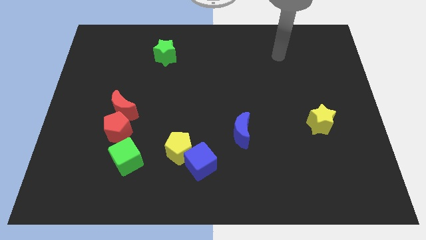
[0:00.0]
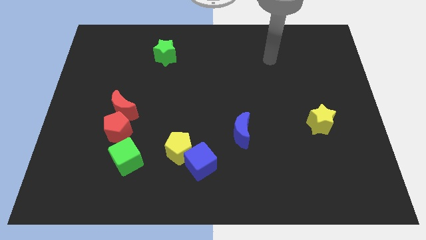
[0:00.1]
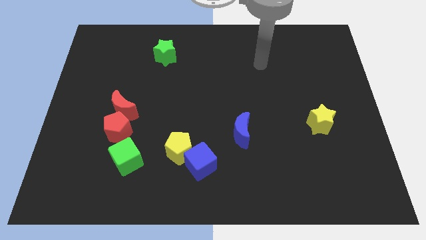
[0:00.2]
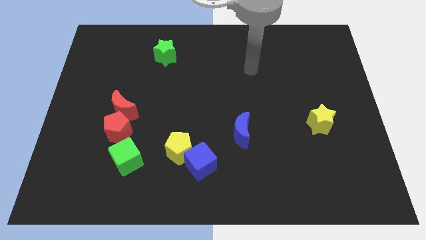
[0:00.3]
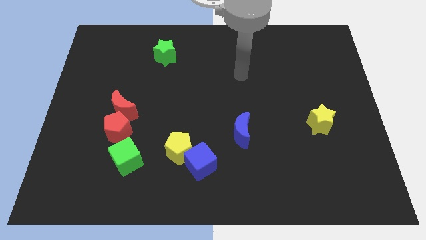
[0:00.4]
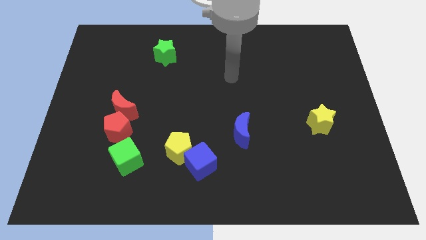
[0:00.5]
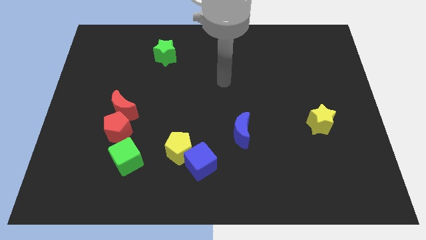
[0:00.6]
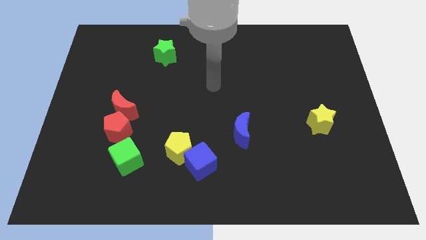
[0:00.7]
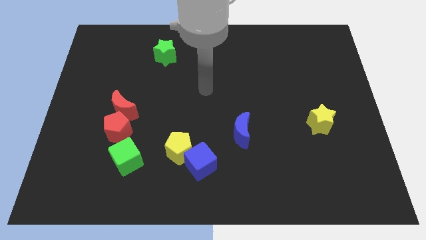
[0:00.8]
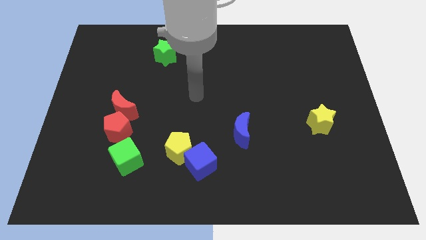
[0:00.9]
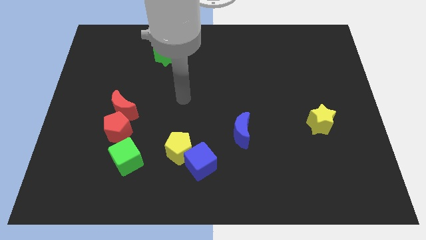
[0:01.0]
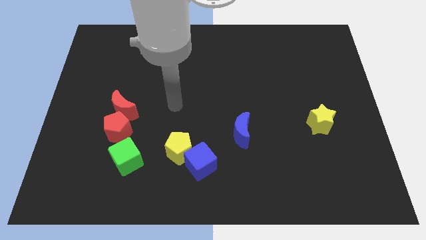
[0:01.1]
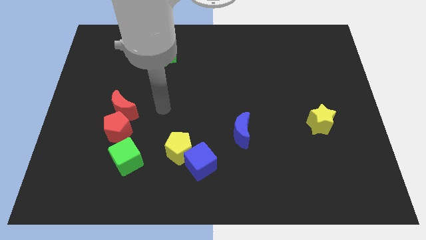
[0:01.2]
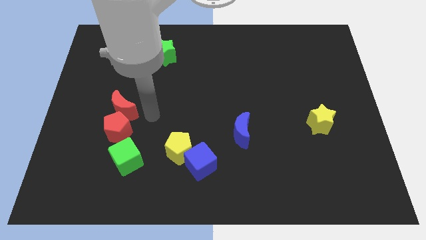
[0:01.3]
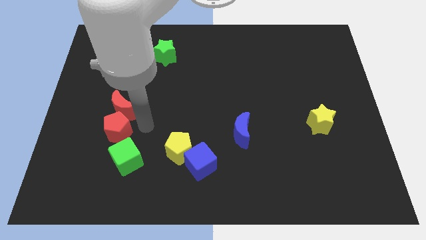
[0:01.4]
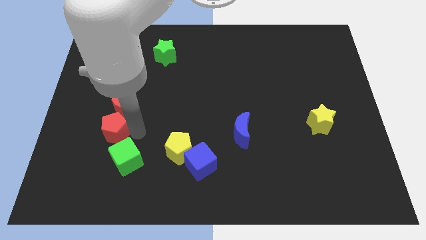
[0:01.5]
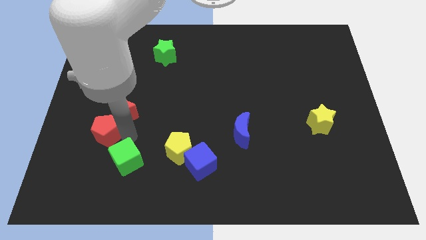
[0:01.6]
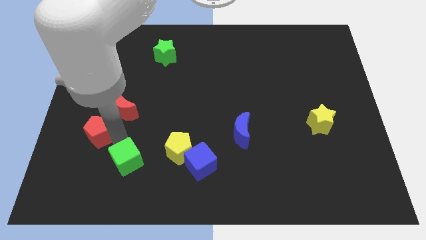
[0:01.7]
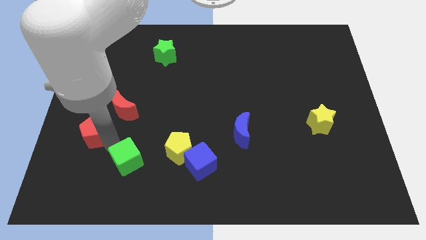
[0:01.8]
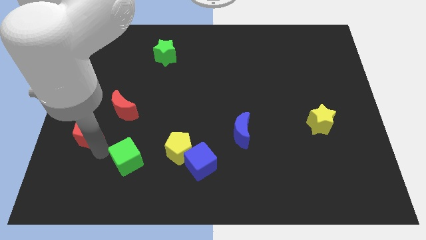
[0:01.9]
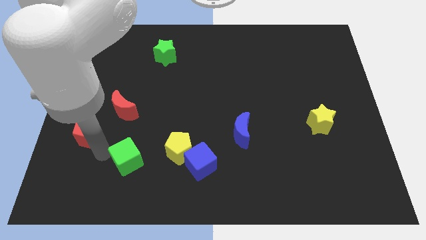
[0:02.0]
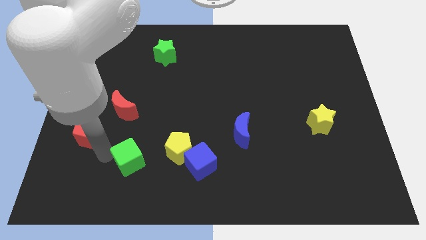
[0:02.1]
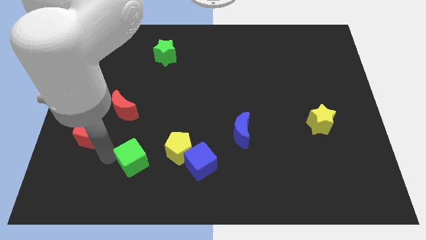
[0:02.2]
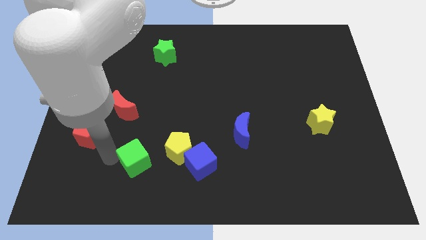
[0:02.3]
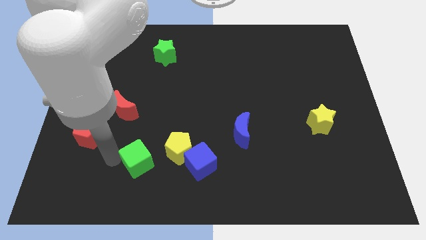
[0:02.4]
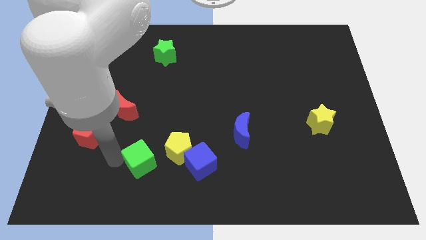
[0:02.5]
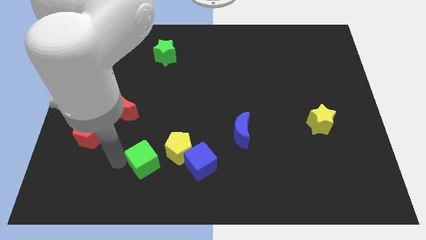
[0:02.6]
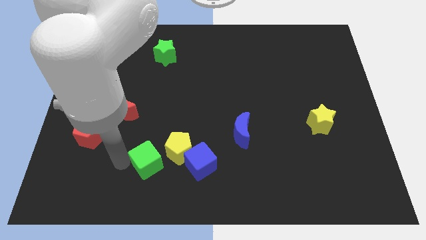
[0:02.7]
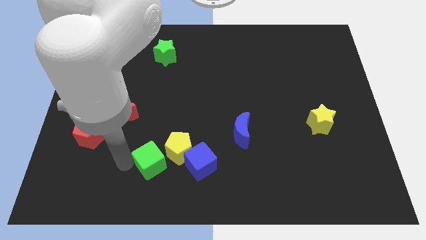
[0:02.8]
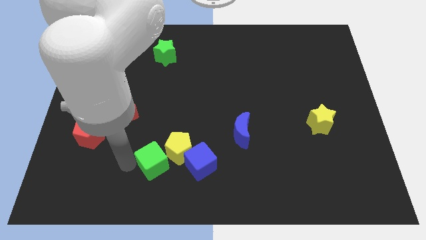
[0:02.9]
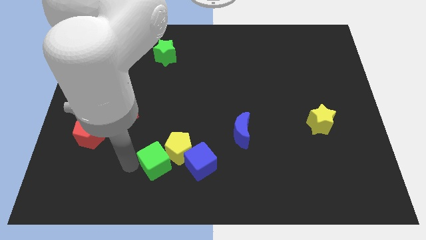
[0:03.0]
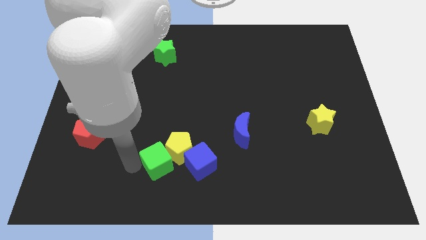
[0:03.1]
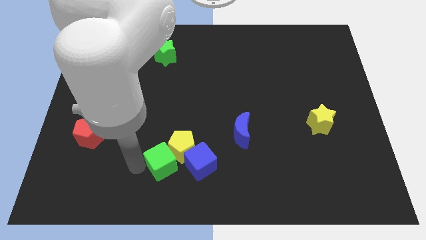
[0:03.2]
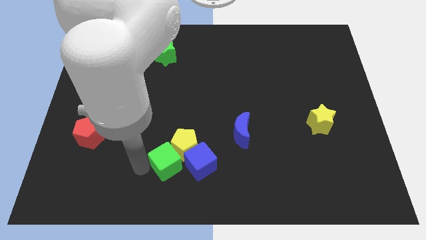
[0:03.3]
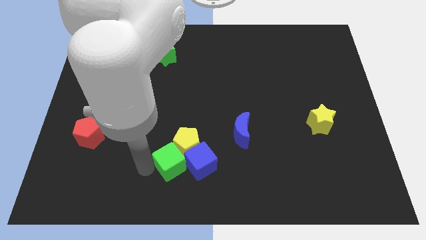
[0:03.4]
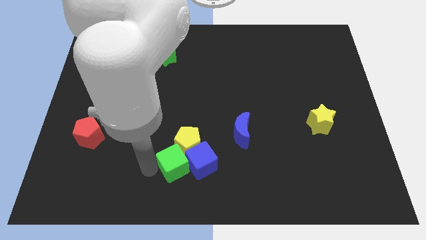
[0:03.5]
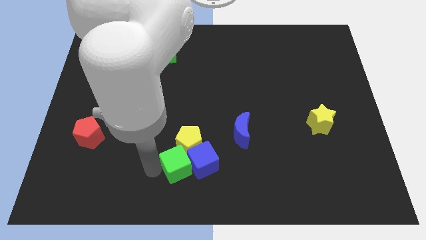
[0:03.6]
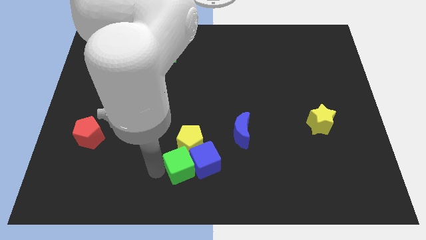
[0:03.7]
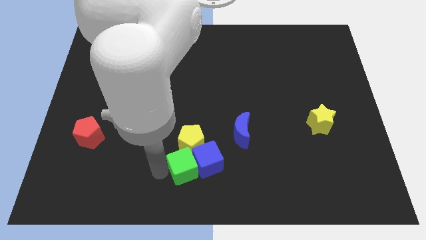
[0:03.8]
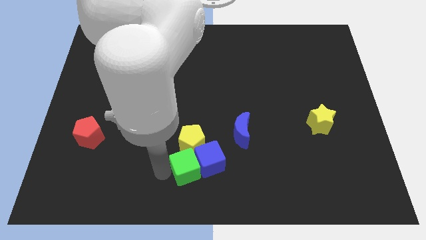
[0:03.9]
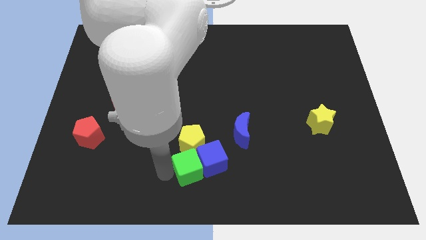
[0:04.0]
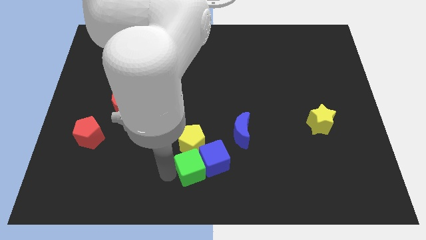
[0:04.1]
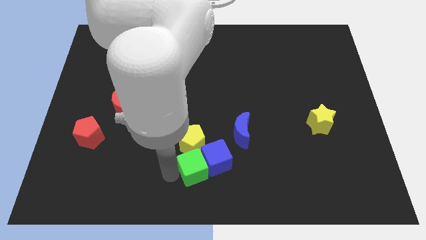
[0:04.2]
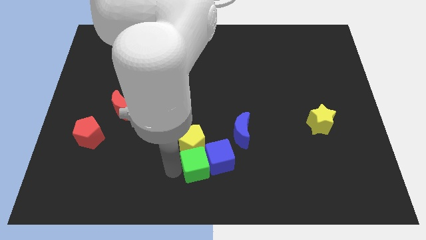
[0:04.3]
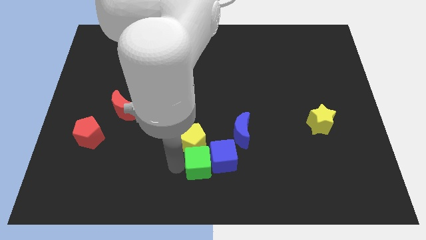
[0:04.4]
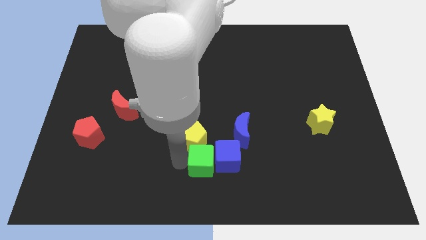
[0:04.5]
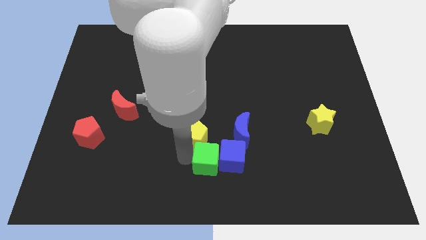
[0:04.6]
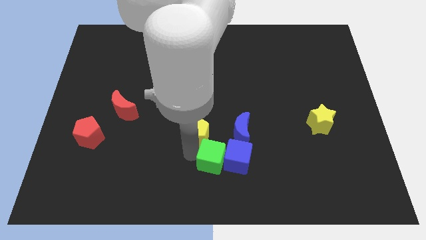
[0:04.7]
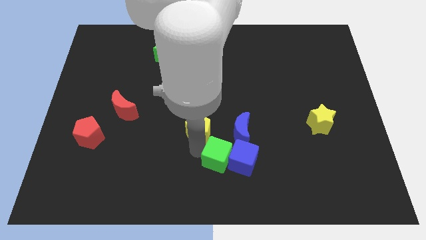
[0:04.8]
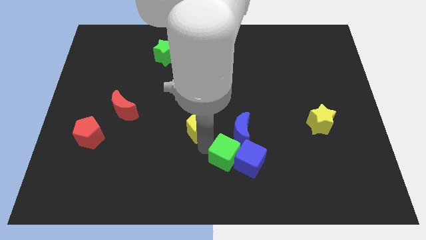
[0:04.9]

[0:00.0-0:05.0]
push the green cube to the right

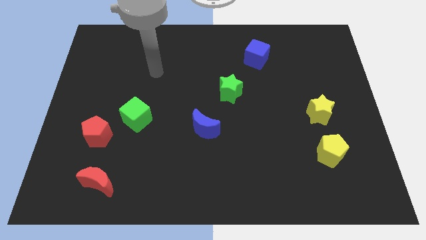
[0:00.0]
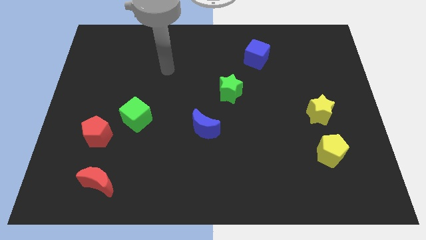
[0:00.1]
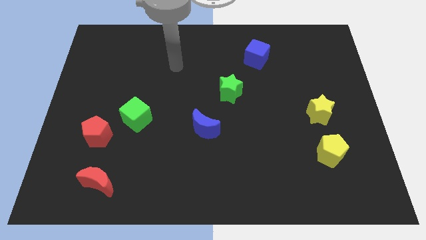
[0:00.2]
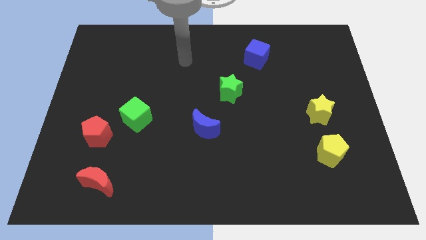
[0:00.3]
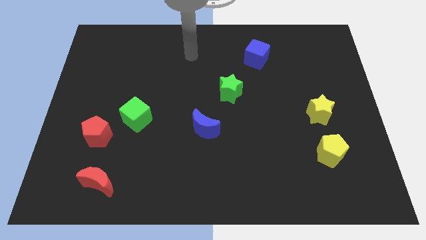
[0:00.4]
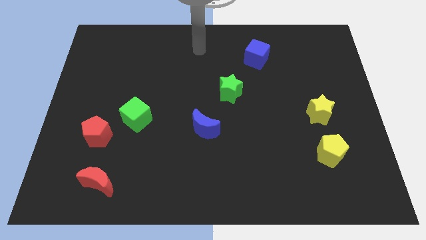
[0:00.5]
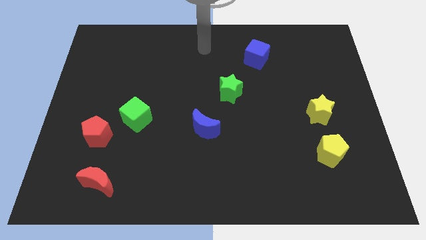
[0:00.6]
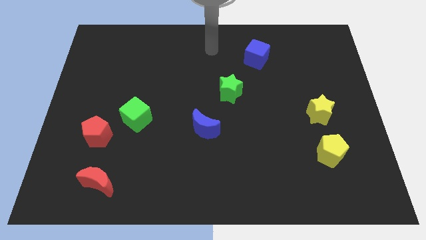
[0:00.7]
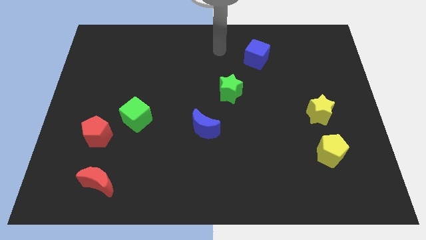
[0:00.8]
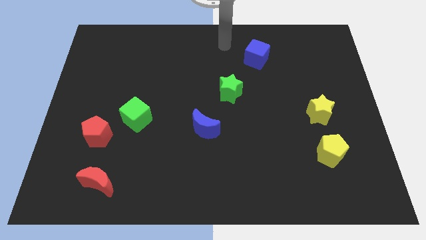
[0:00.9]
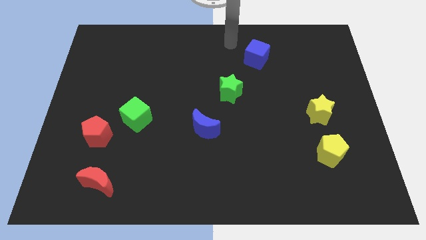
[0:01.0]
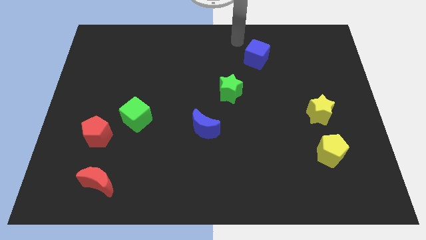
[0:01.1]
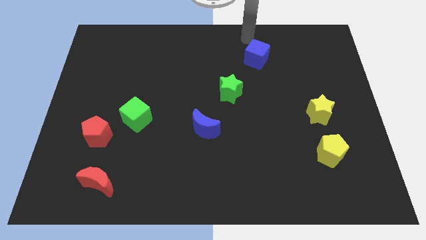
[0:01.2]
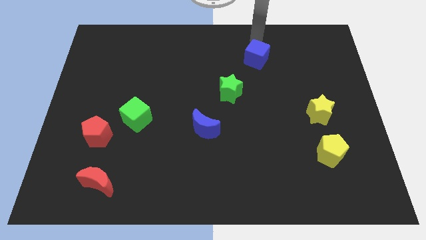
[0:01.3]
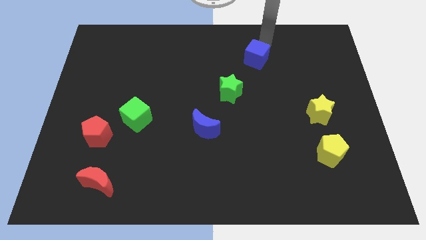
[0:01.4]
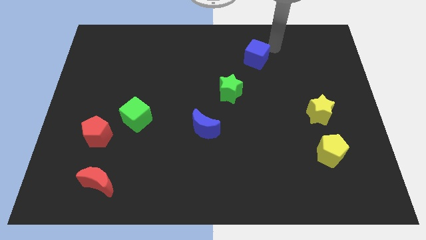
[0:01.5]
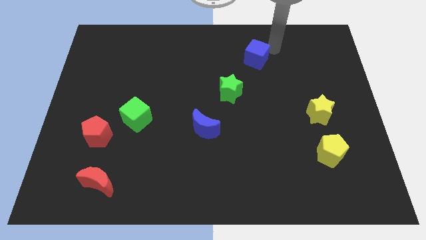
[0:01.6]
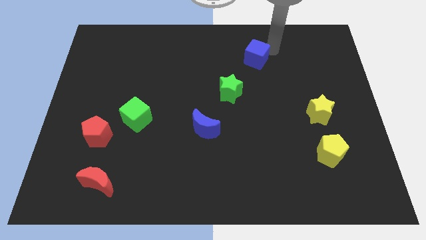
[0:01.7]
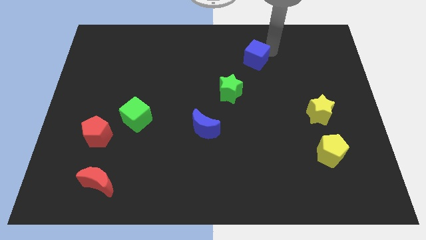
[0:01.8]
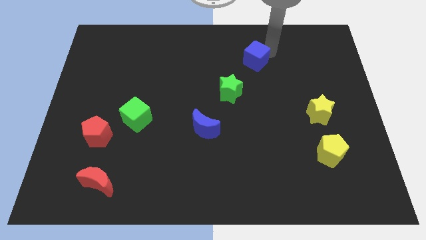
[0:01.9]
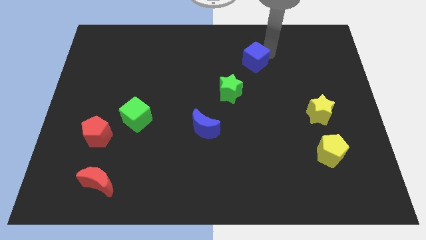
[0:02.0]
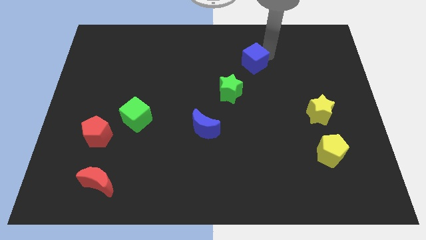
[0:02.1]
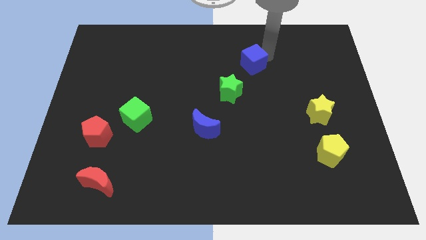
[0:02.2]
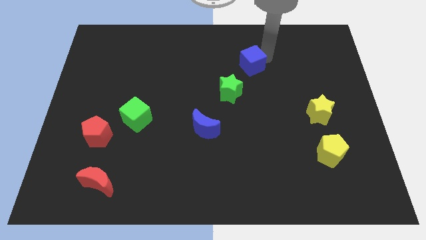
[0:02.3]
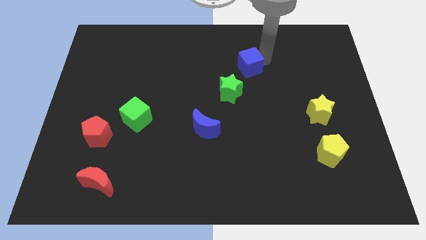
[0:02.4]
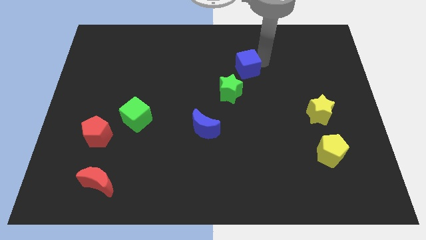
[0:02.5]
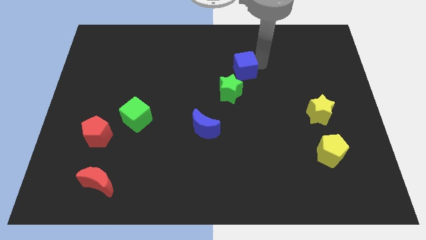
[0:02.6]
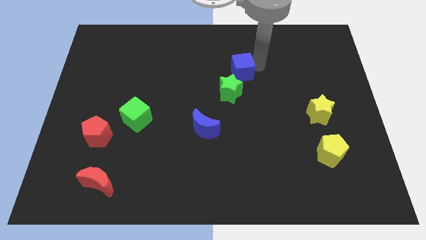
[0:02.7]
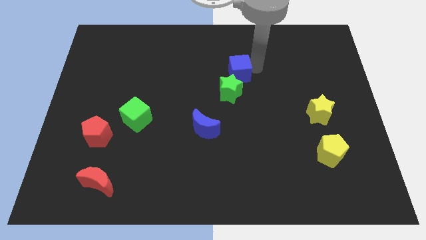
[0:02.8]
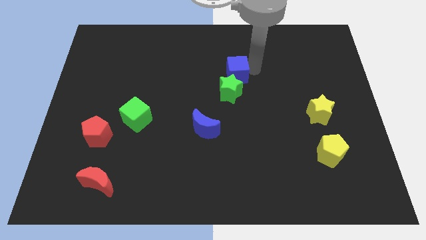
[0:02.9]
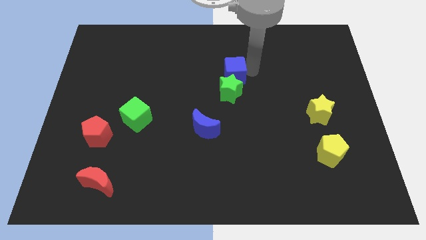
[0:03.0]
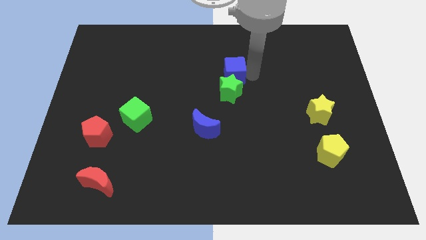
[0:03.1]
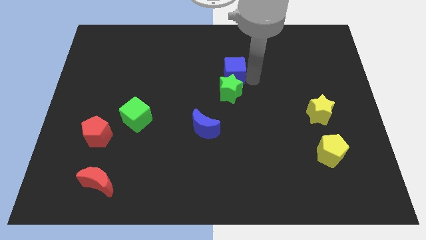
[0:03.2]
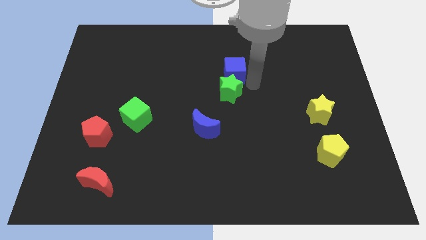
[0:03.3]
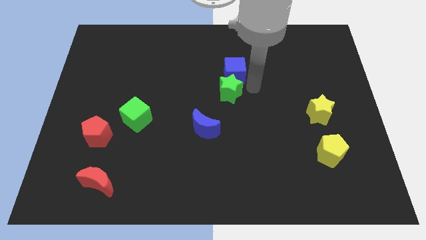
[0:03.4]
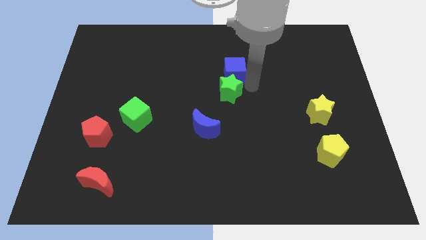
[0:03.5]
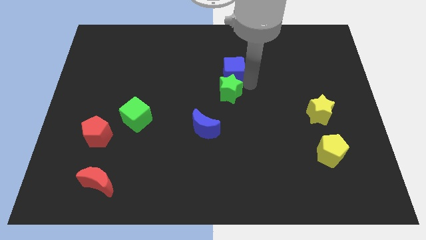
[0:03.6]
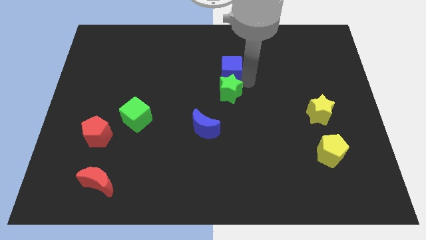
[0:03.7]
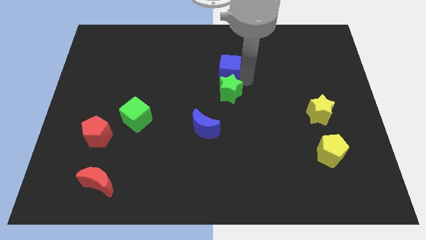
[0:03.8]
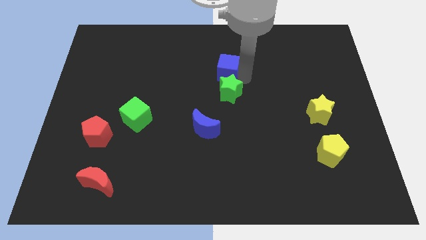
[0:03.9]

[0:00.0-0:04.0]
slightly push the blue cube left
